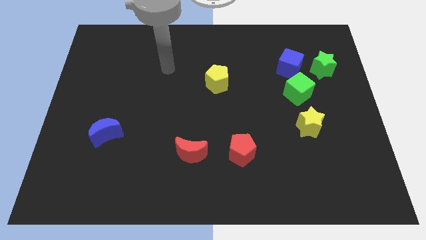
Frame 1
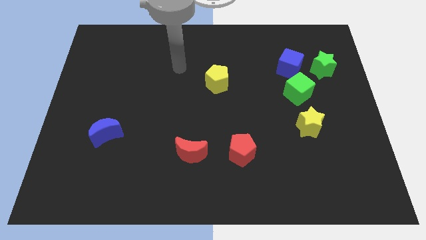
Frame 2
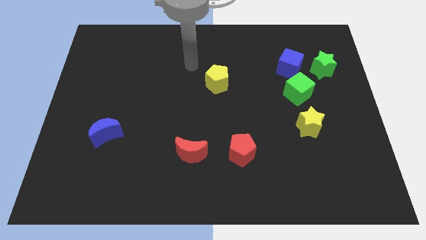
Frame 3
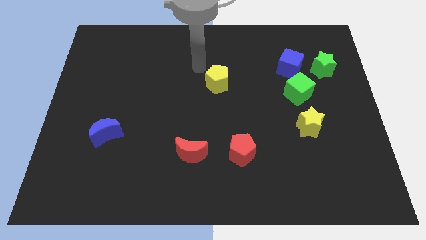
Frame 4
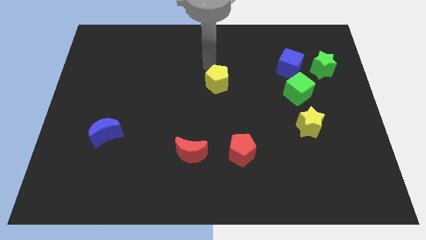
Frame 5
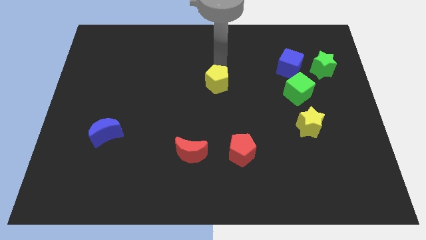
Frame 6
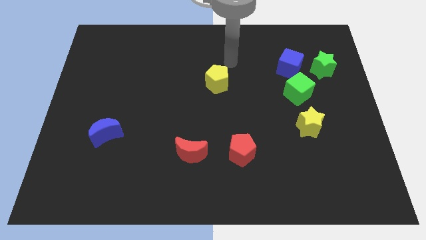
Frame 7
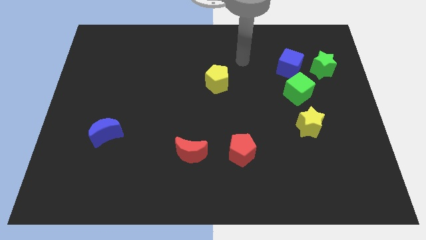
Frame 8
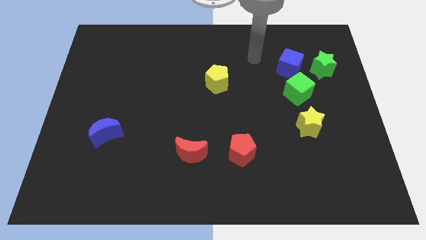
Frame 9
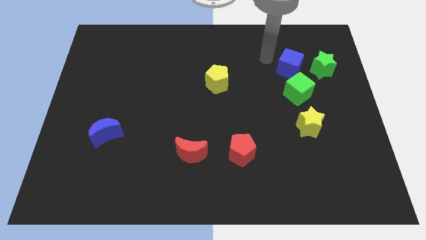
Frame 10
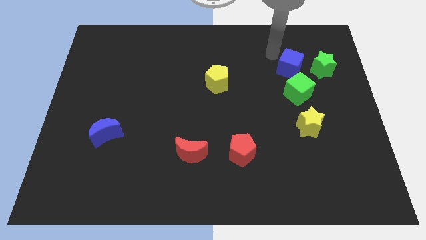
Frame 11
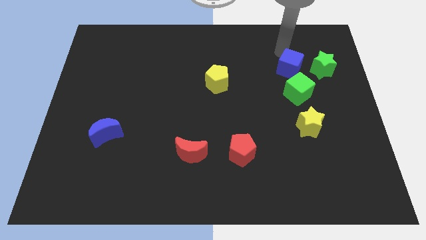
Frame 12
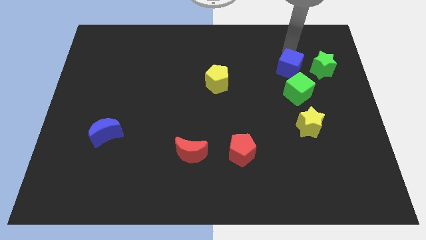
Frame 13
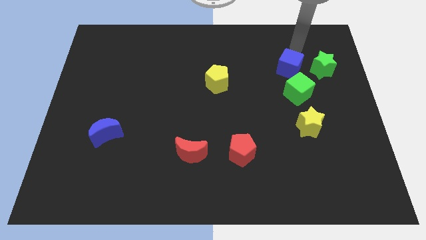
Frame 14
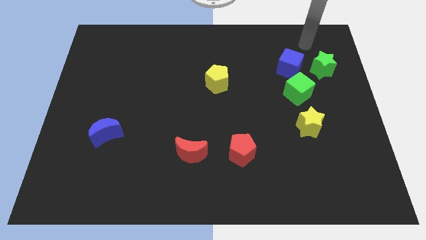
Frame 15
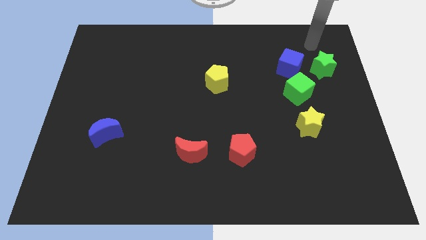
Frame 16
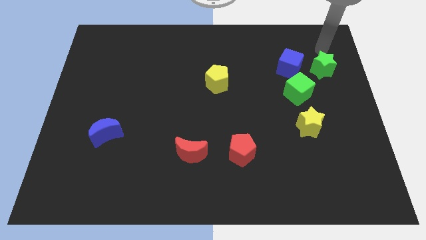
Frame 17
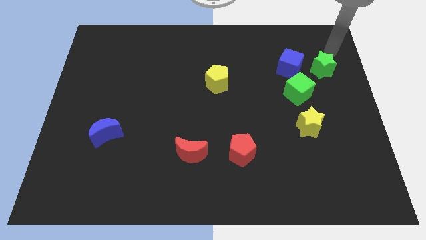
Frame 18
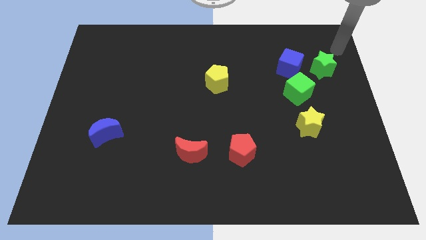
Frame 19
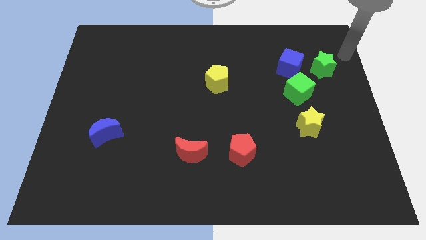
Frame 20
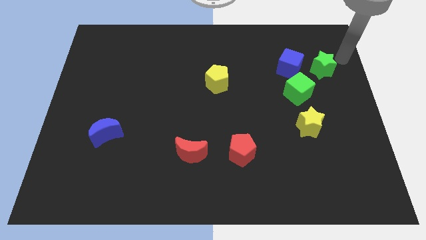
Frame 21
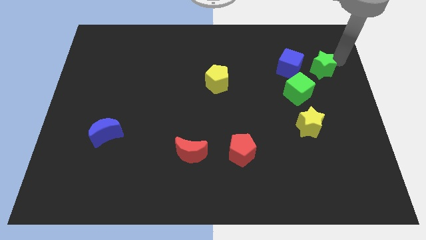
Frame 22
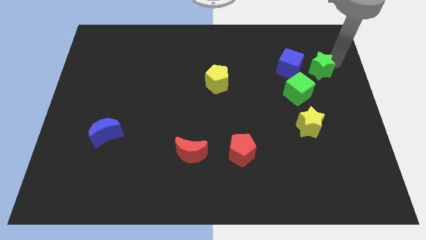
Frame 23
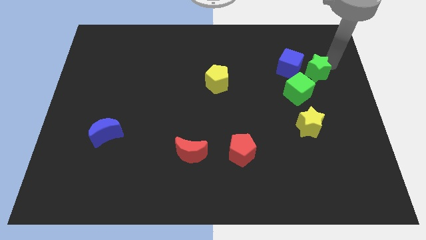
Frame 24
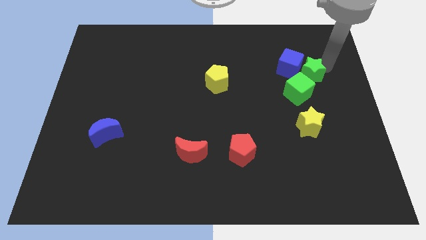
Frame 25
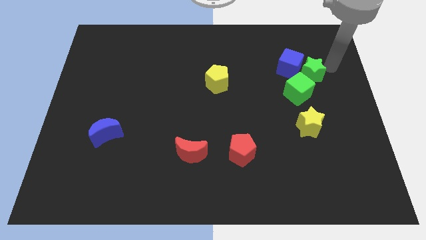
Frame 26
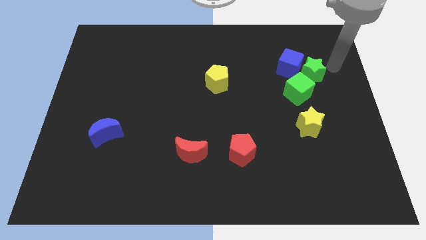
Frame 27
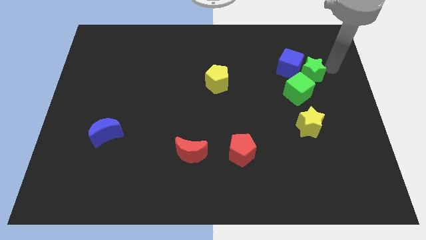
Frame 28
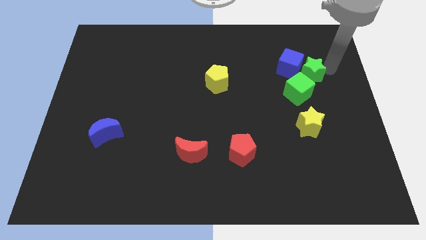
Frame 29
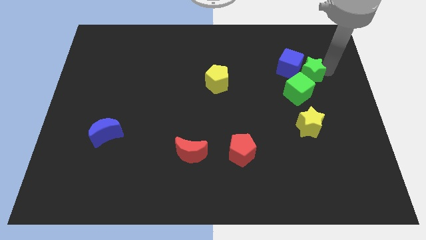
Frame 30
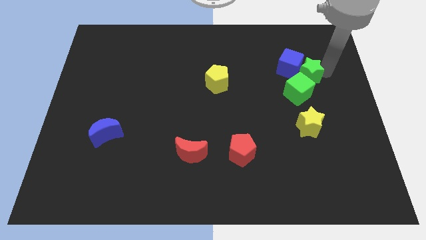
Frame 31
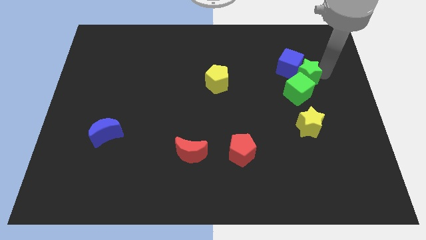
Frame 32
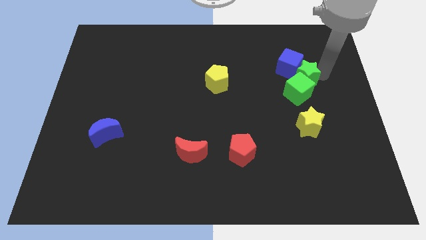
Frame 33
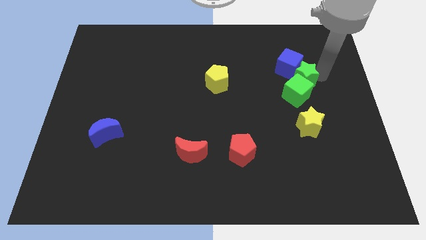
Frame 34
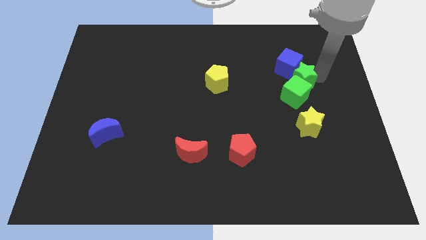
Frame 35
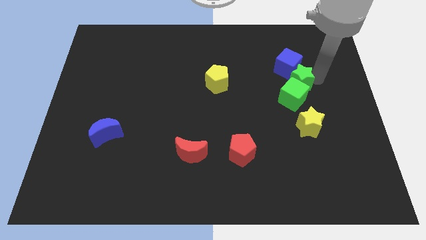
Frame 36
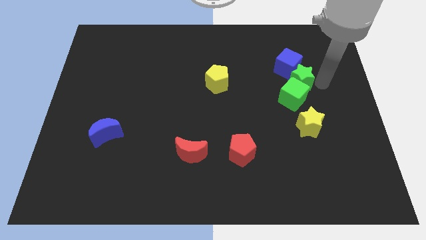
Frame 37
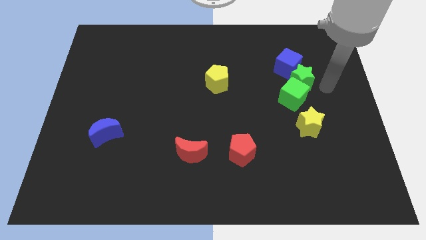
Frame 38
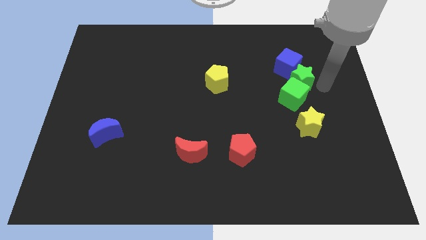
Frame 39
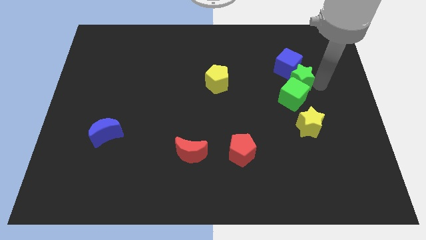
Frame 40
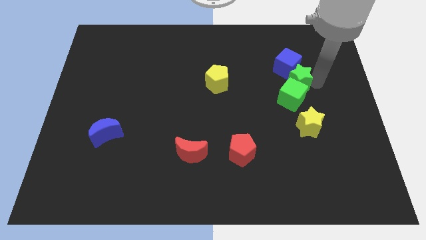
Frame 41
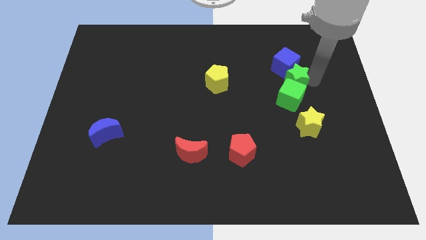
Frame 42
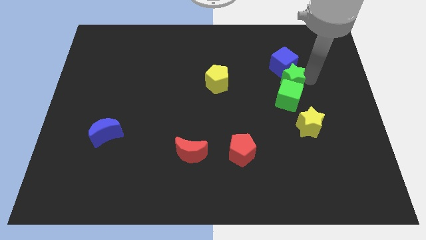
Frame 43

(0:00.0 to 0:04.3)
slightly push the green star left

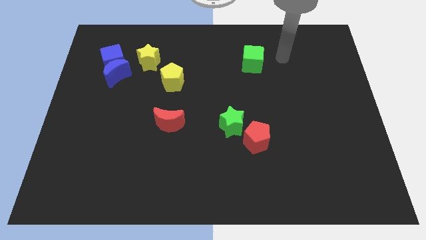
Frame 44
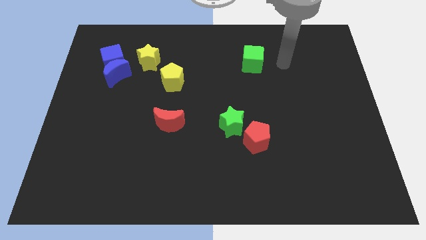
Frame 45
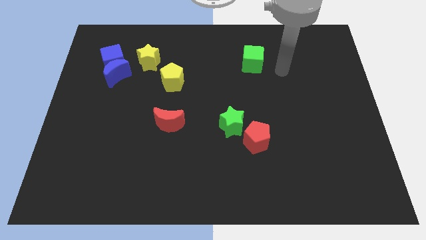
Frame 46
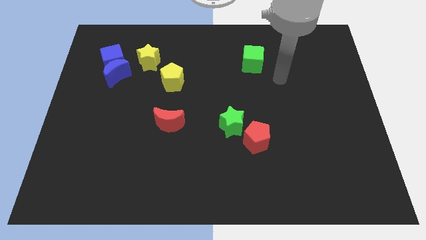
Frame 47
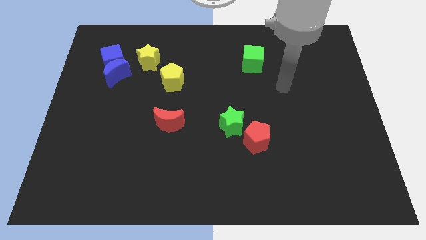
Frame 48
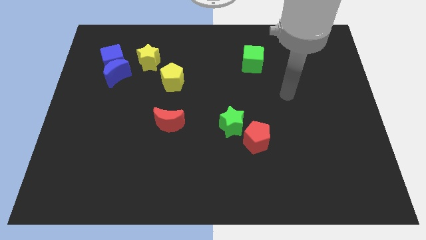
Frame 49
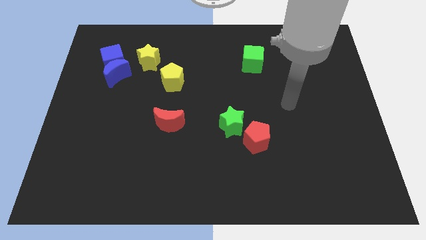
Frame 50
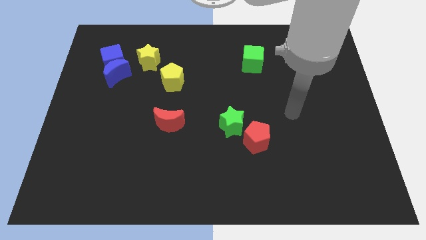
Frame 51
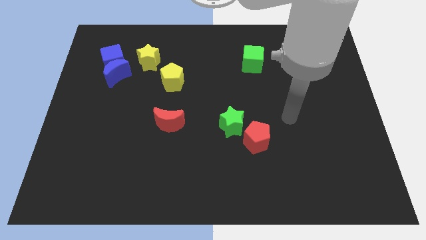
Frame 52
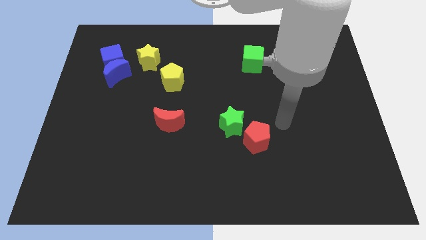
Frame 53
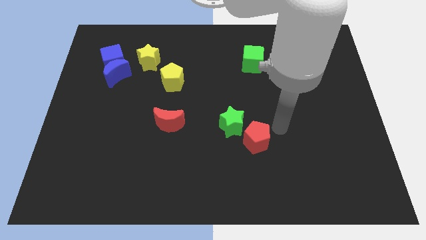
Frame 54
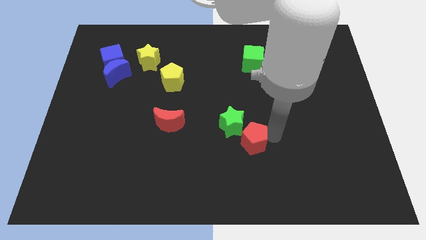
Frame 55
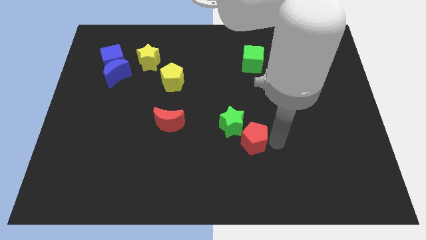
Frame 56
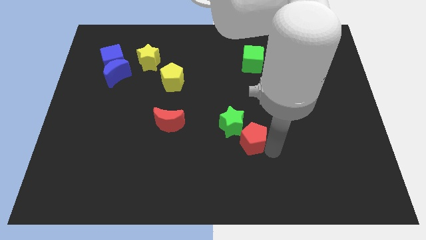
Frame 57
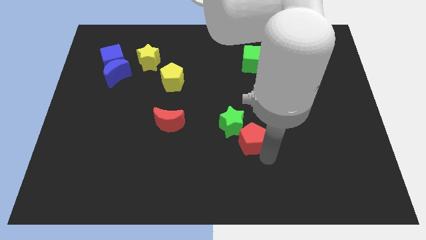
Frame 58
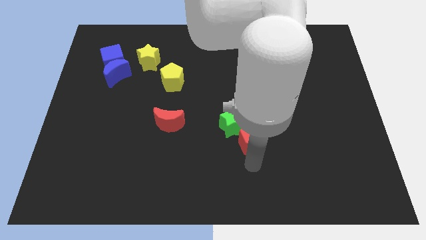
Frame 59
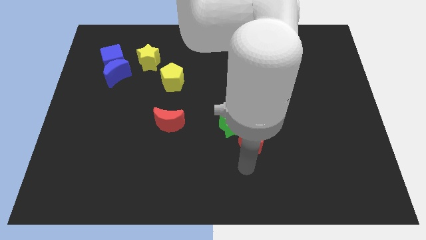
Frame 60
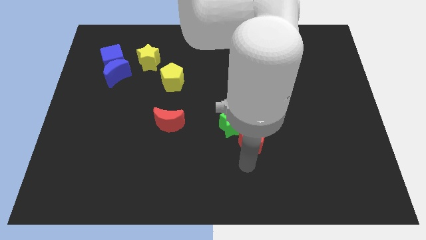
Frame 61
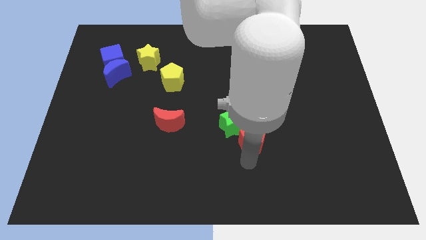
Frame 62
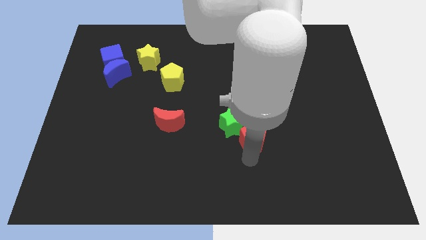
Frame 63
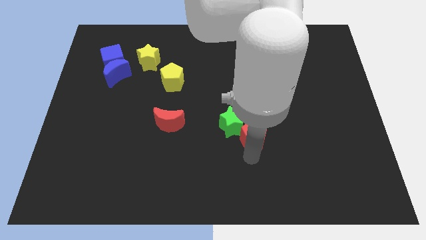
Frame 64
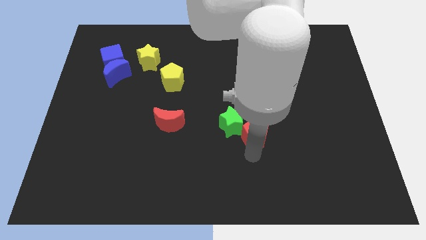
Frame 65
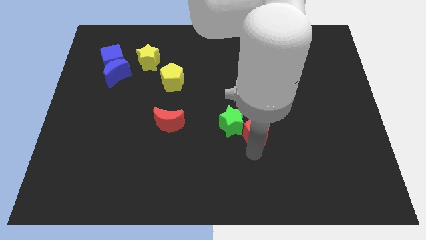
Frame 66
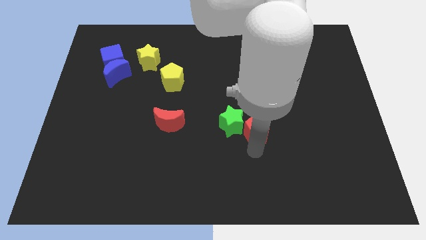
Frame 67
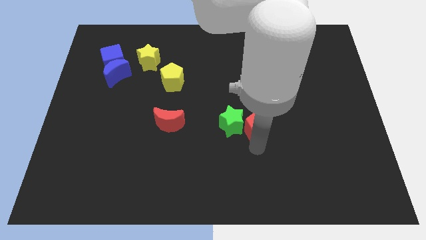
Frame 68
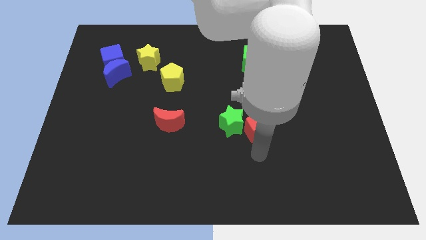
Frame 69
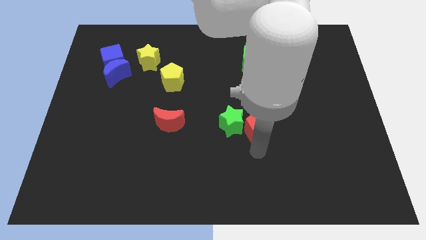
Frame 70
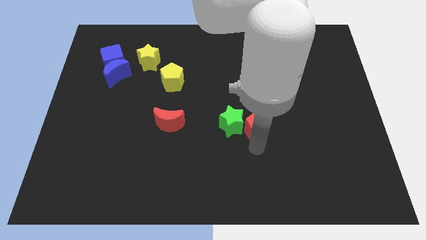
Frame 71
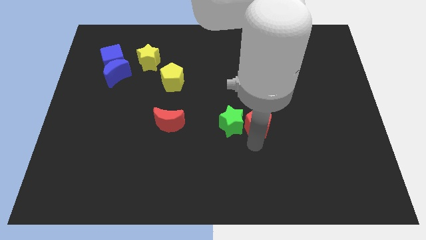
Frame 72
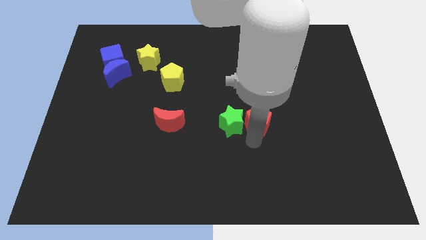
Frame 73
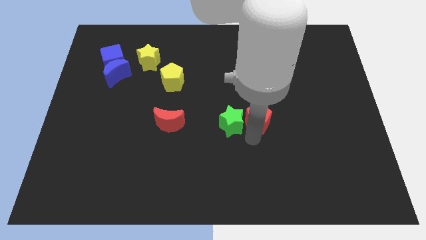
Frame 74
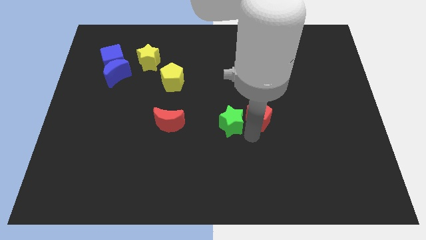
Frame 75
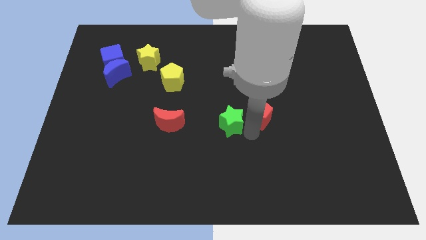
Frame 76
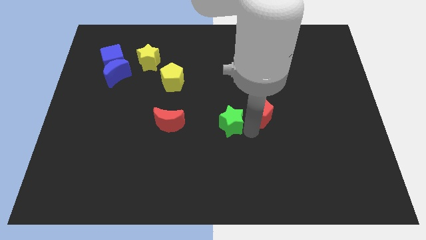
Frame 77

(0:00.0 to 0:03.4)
slide the red pentagon a bit up

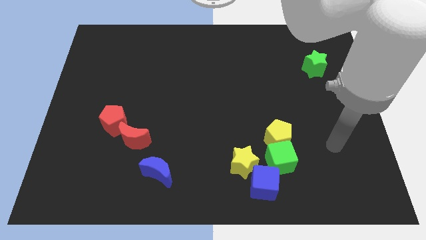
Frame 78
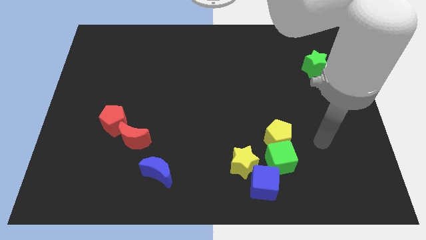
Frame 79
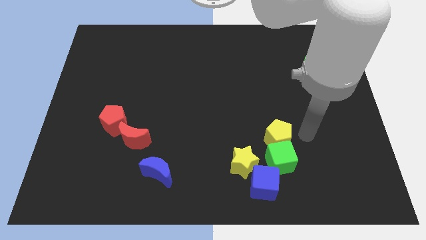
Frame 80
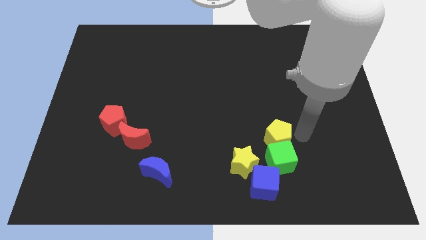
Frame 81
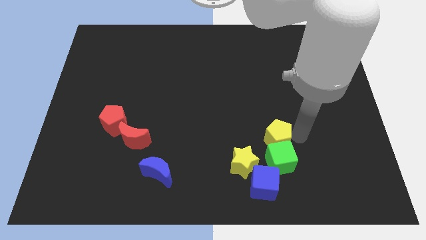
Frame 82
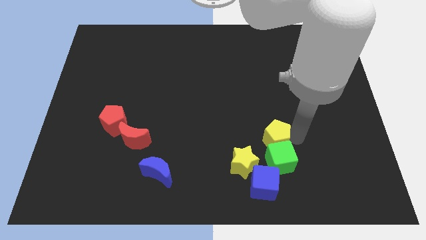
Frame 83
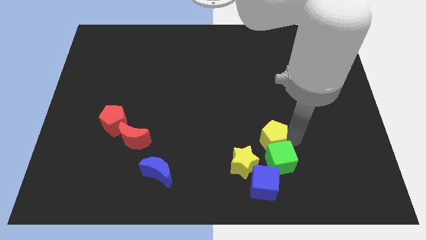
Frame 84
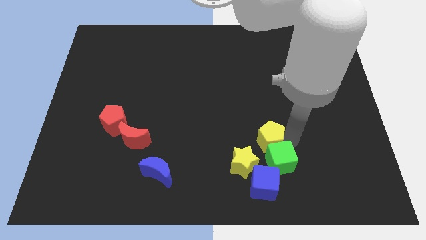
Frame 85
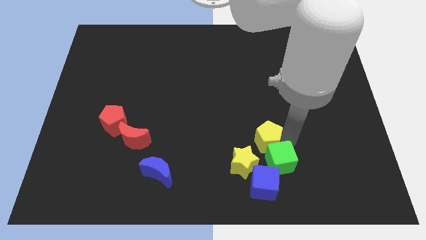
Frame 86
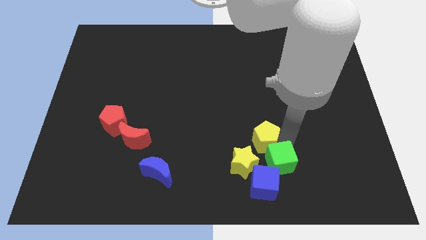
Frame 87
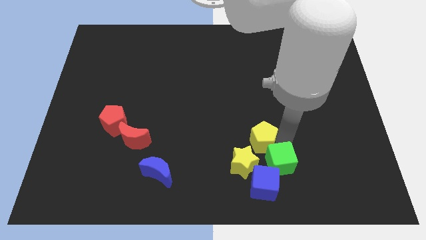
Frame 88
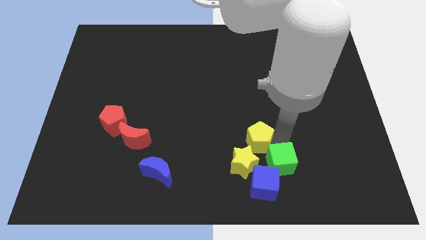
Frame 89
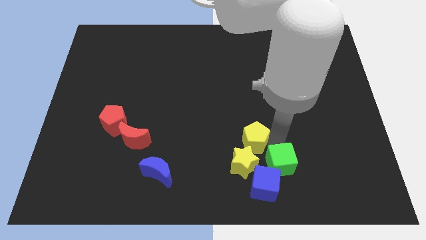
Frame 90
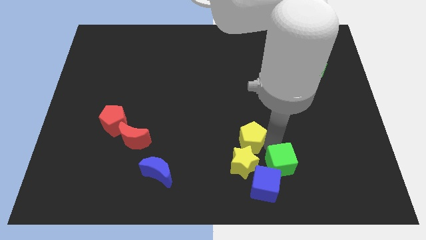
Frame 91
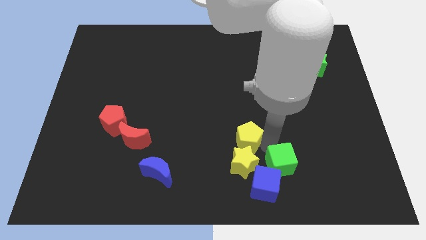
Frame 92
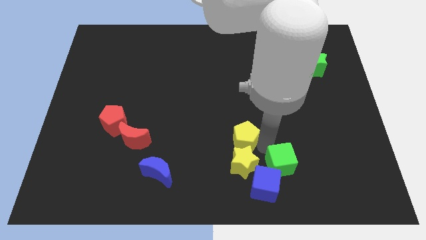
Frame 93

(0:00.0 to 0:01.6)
slightly slide the yellow pentagon to the left
